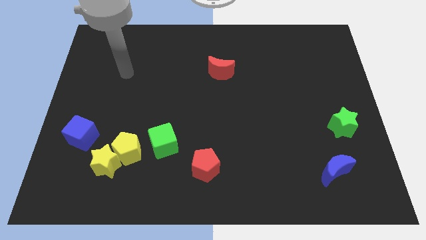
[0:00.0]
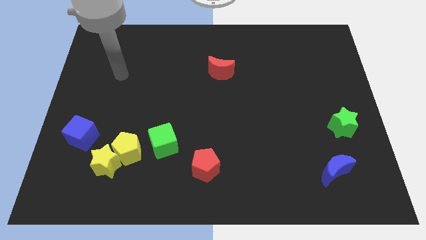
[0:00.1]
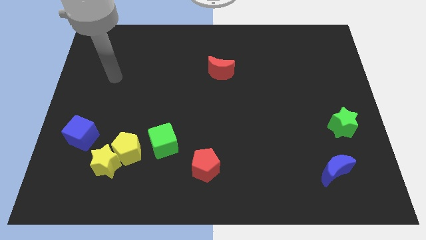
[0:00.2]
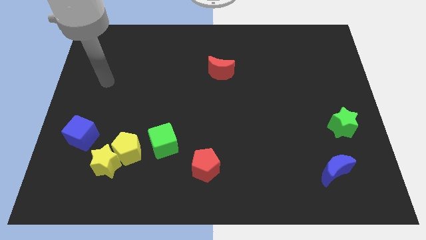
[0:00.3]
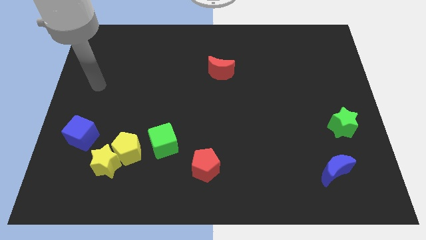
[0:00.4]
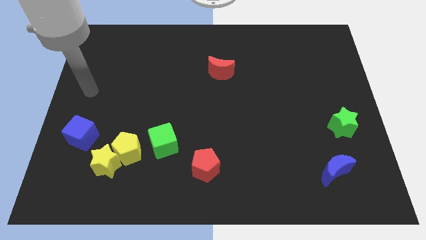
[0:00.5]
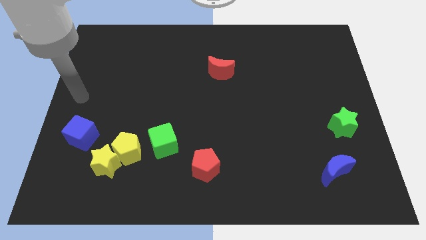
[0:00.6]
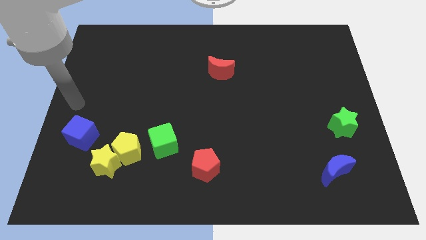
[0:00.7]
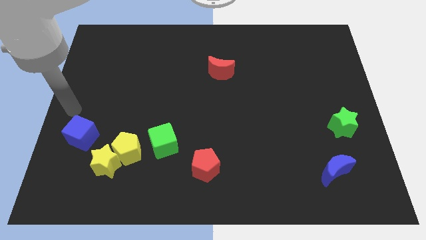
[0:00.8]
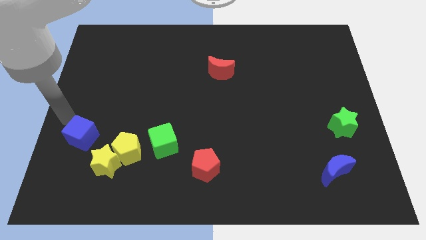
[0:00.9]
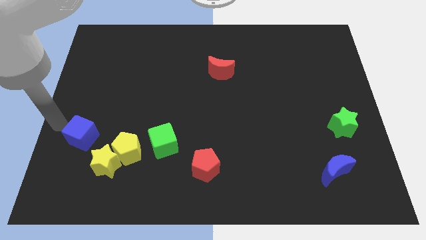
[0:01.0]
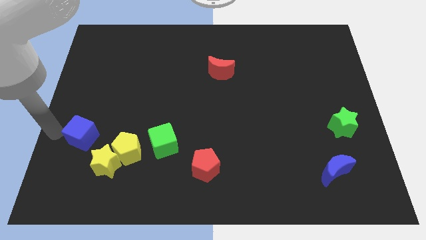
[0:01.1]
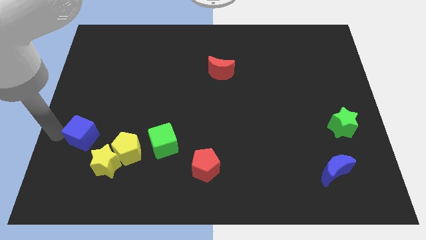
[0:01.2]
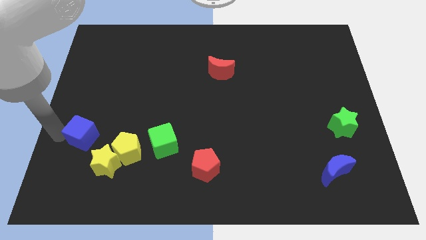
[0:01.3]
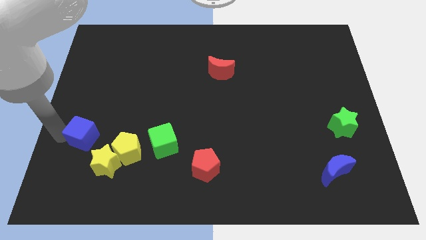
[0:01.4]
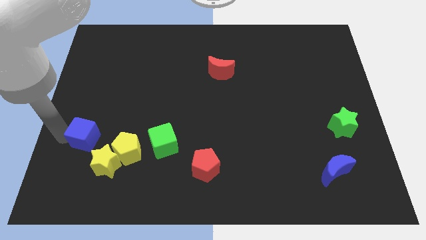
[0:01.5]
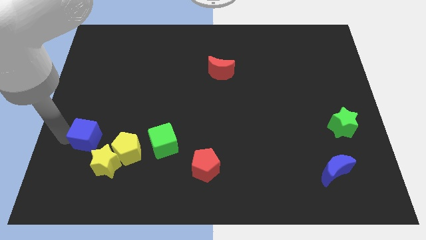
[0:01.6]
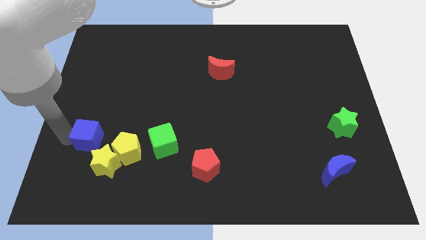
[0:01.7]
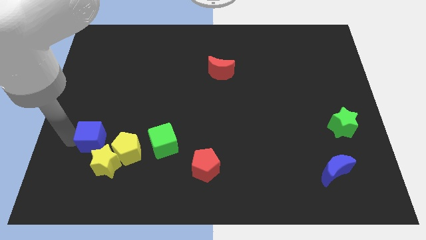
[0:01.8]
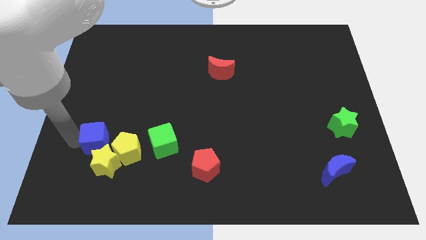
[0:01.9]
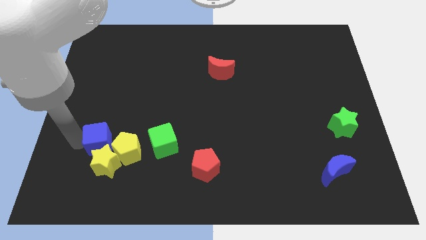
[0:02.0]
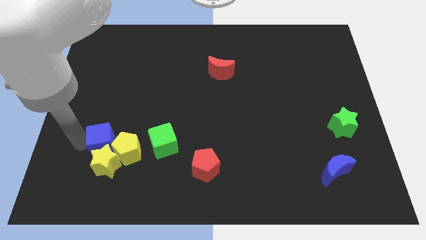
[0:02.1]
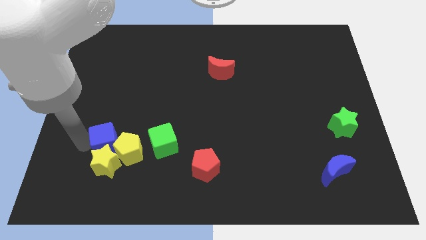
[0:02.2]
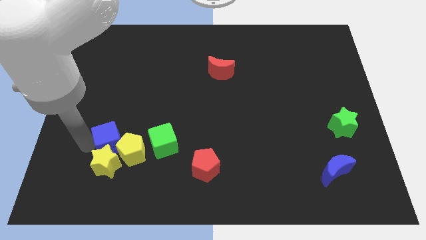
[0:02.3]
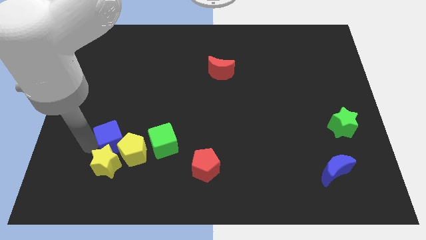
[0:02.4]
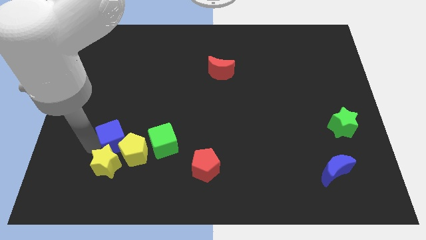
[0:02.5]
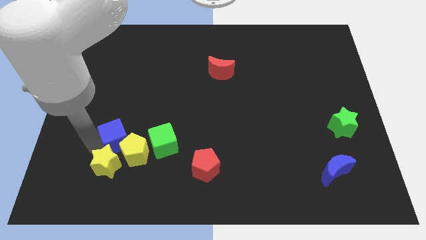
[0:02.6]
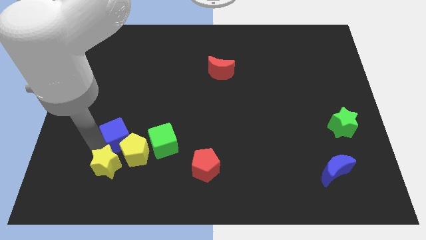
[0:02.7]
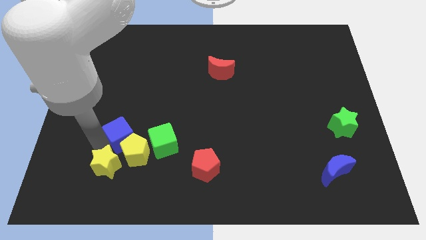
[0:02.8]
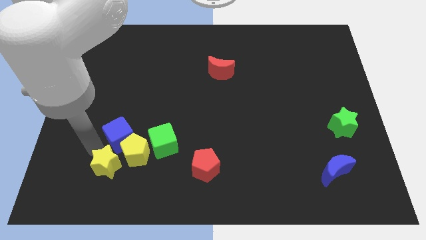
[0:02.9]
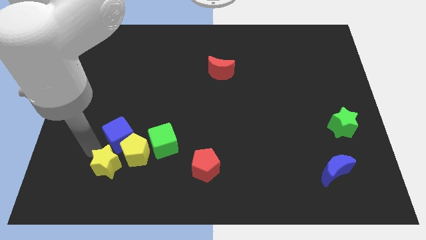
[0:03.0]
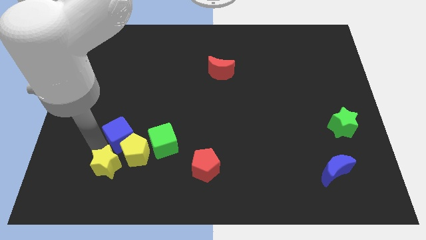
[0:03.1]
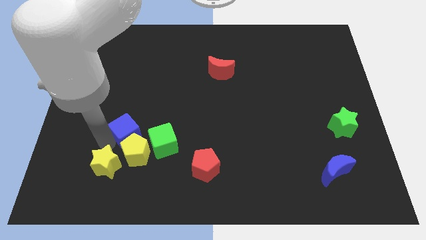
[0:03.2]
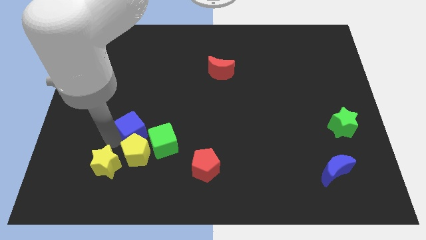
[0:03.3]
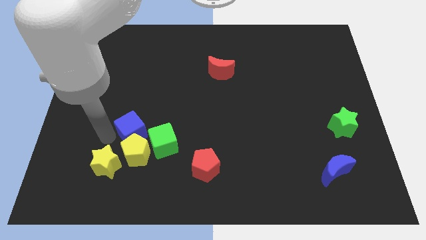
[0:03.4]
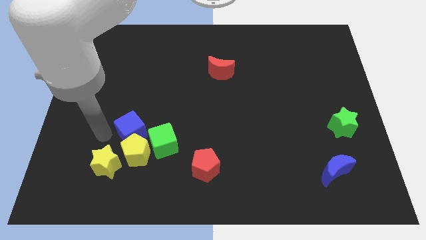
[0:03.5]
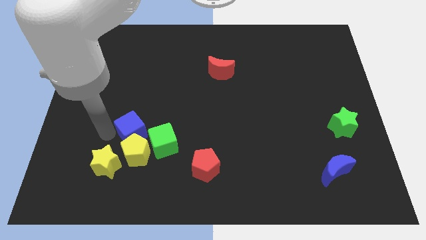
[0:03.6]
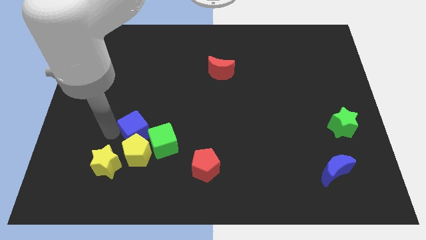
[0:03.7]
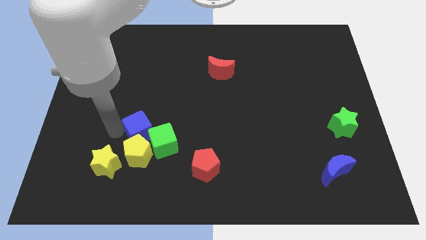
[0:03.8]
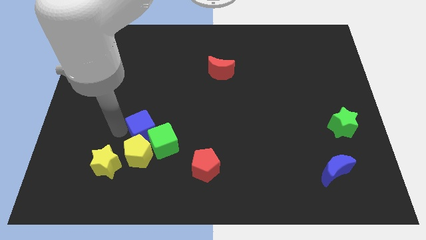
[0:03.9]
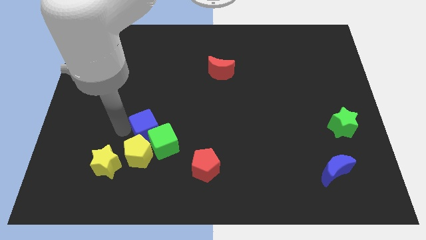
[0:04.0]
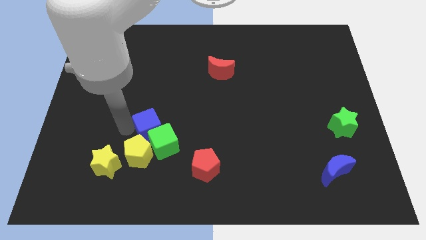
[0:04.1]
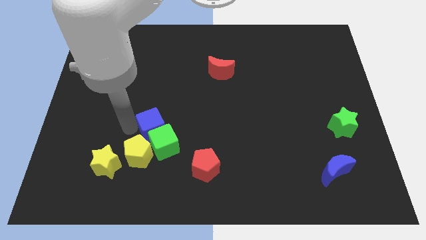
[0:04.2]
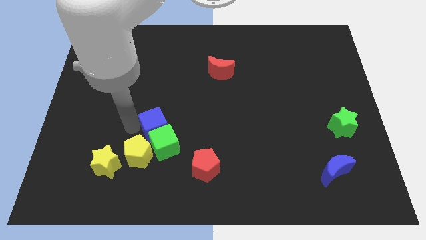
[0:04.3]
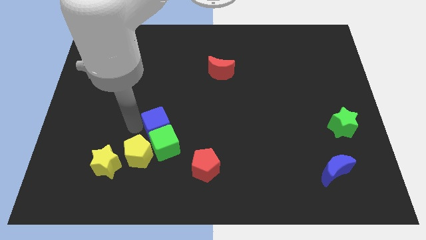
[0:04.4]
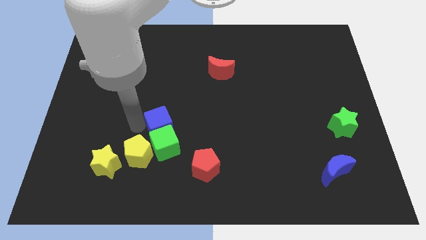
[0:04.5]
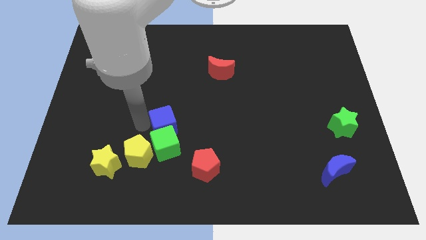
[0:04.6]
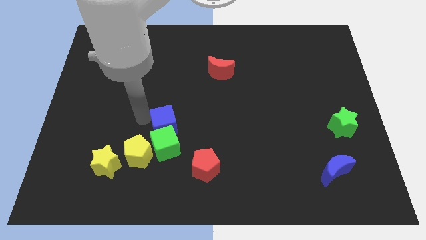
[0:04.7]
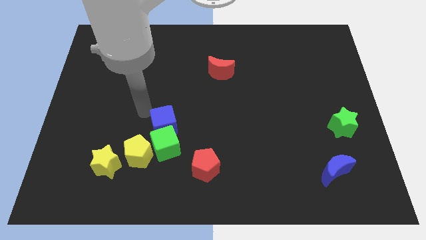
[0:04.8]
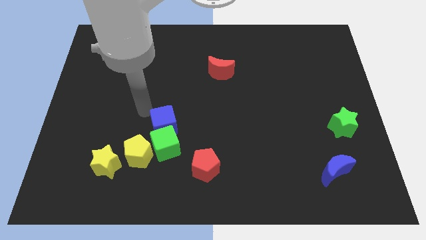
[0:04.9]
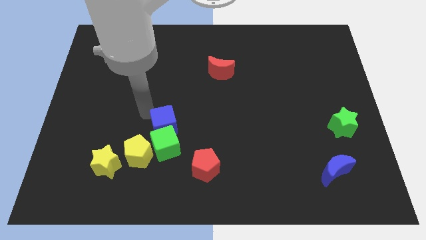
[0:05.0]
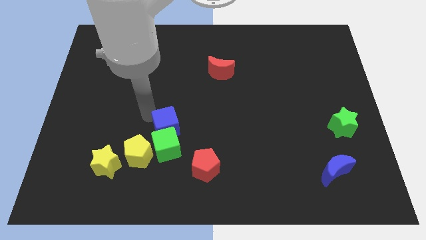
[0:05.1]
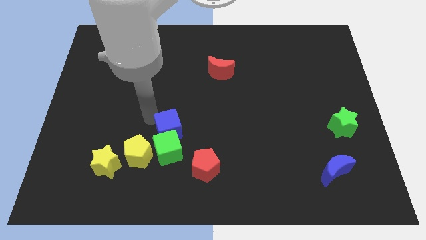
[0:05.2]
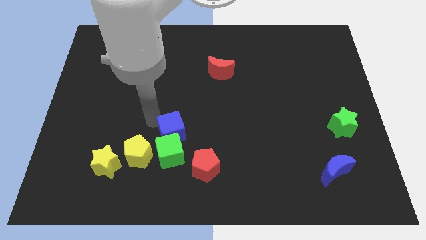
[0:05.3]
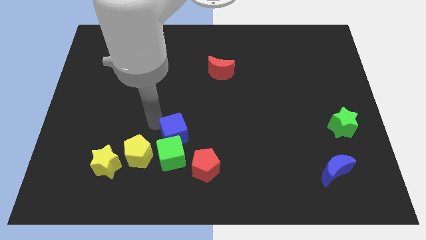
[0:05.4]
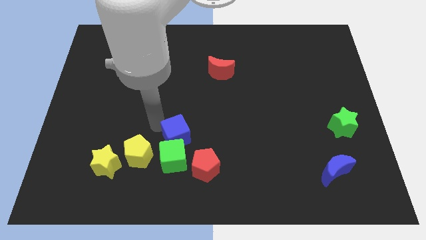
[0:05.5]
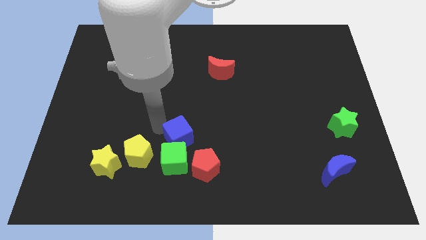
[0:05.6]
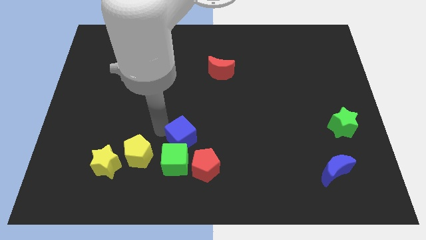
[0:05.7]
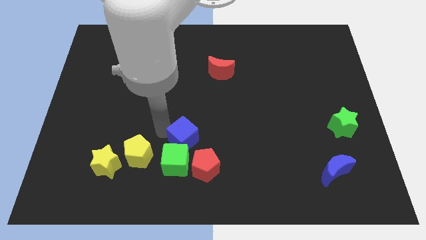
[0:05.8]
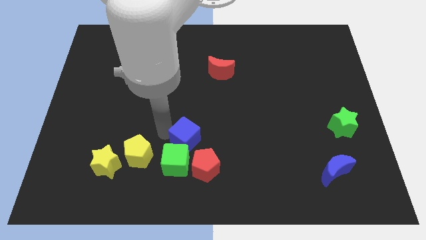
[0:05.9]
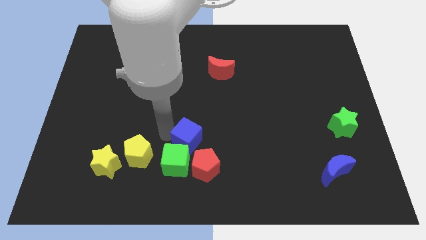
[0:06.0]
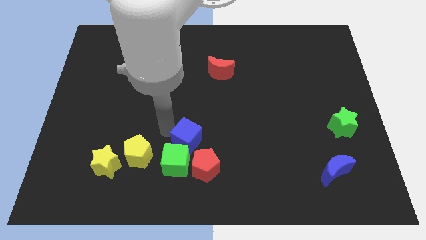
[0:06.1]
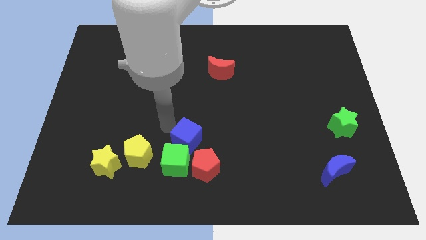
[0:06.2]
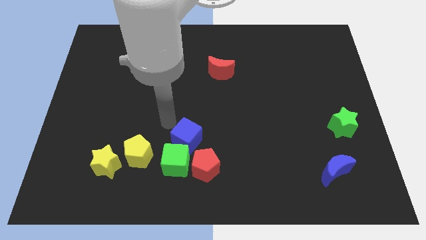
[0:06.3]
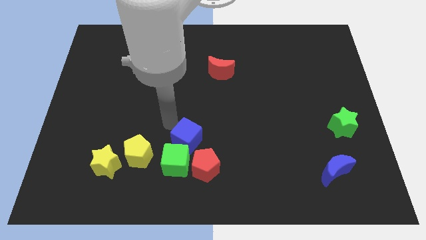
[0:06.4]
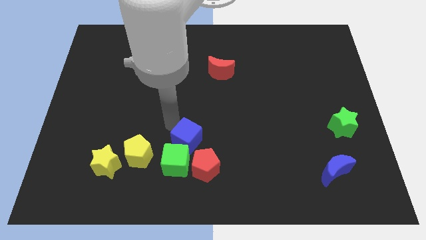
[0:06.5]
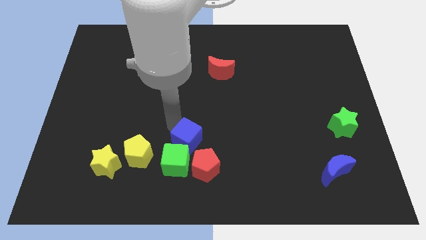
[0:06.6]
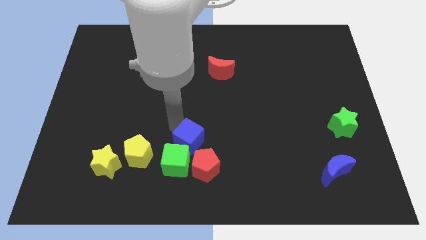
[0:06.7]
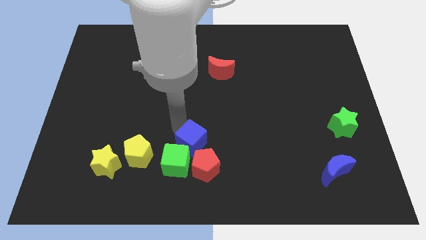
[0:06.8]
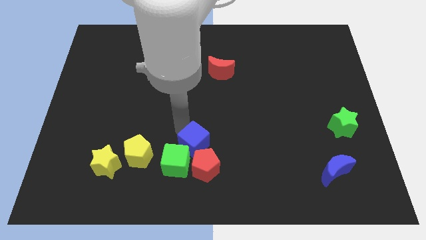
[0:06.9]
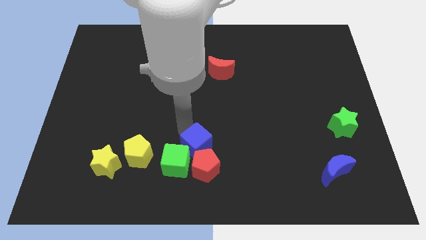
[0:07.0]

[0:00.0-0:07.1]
push the blue cube close to the red pentagon
